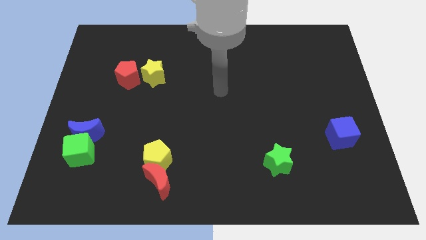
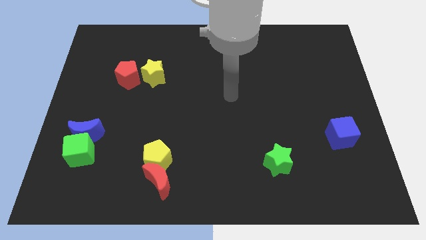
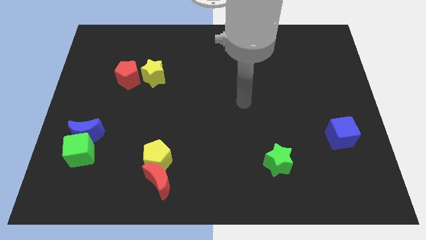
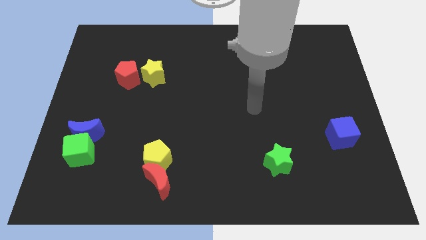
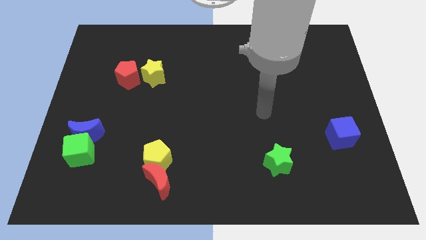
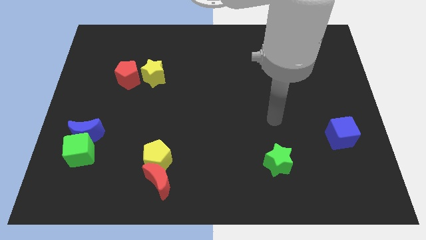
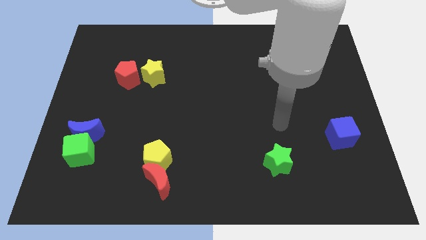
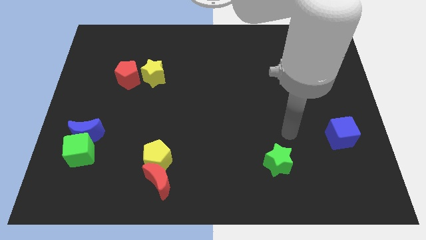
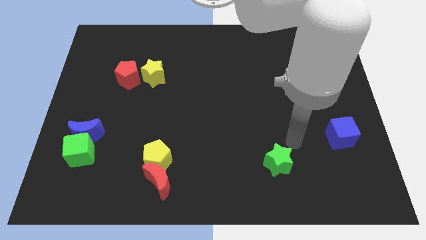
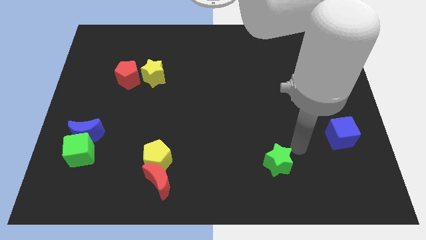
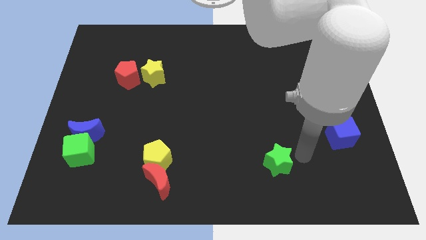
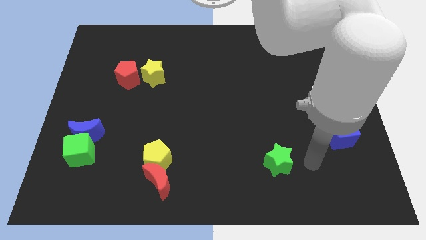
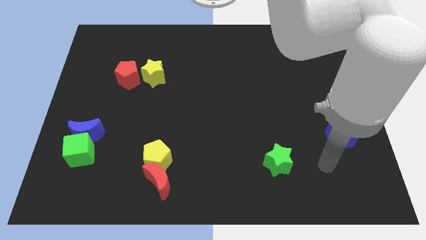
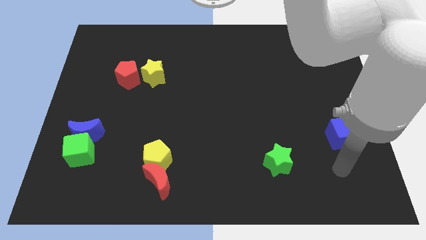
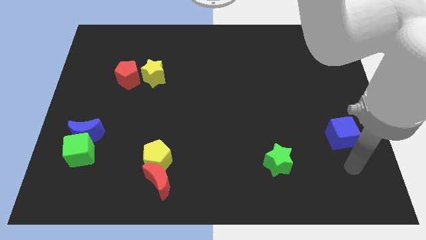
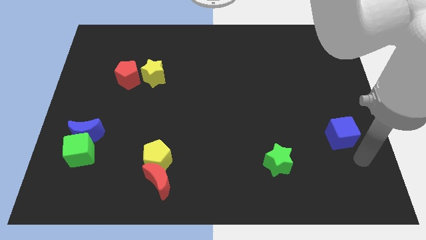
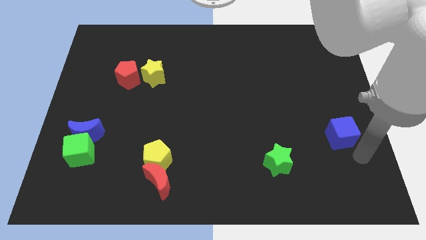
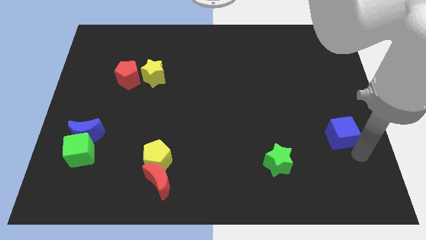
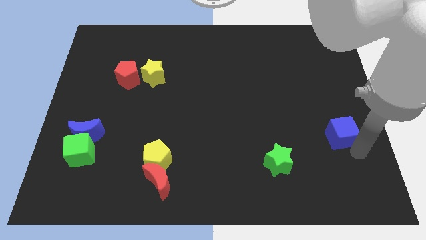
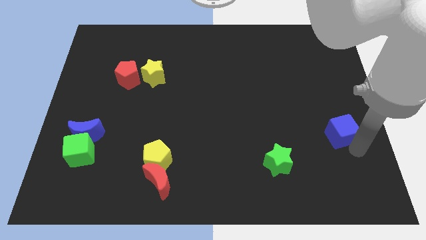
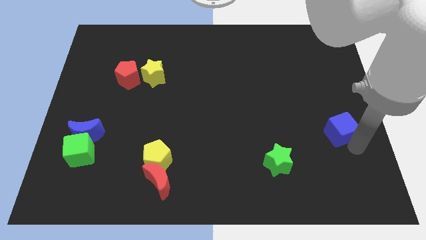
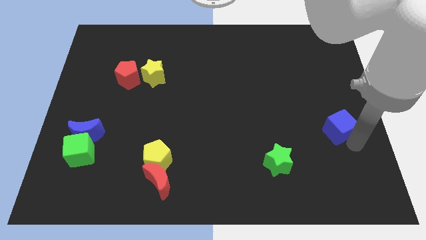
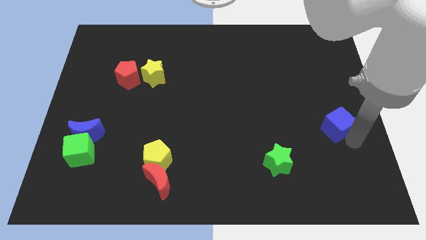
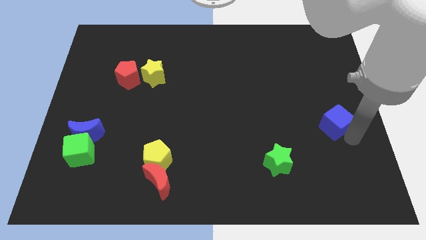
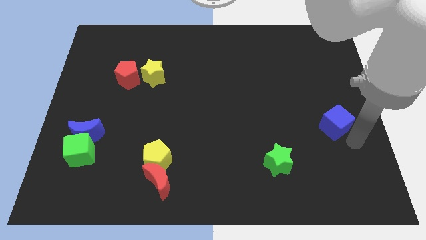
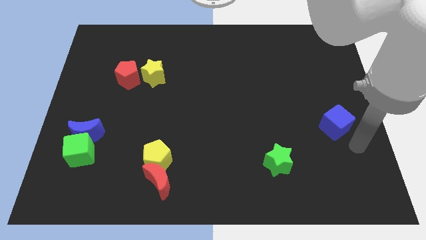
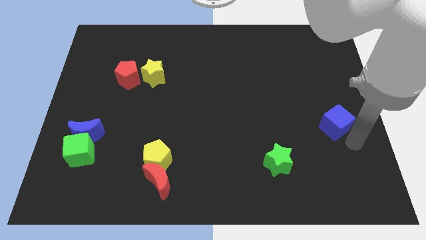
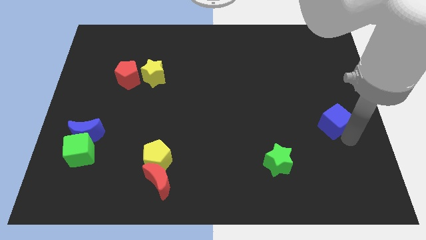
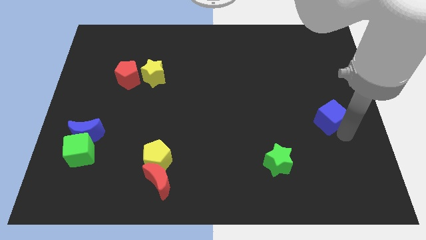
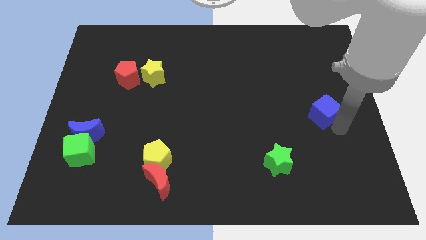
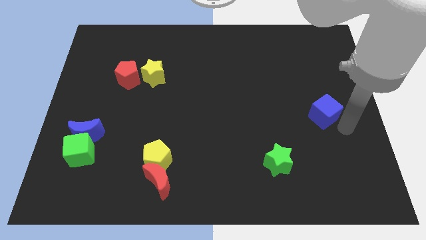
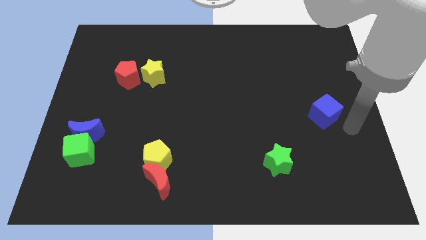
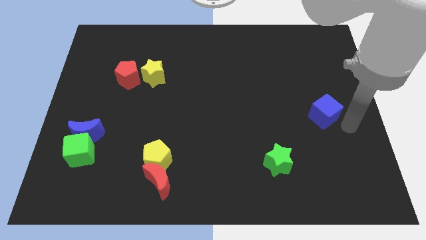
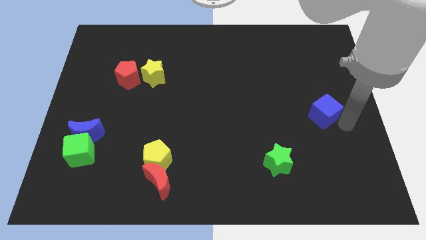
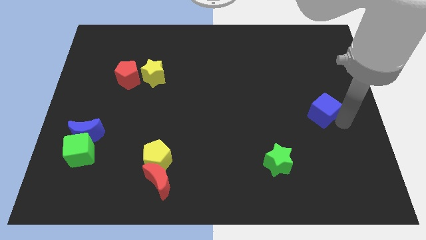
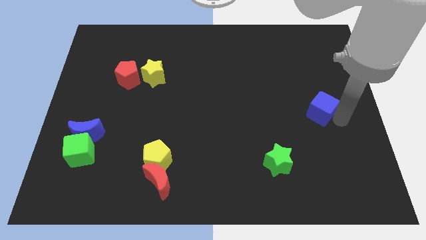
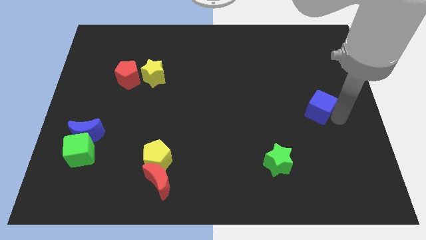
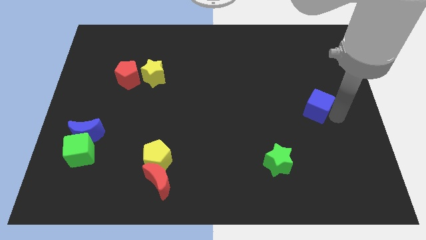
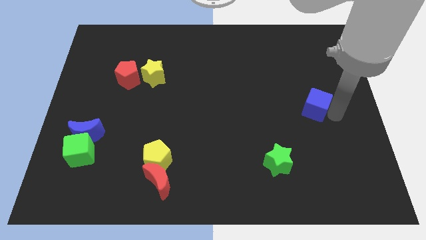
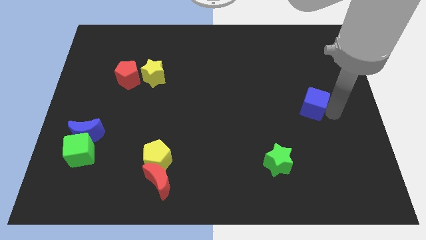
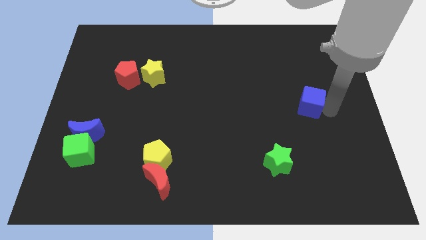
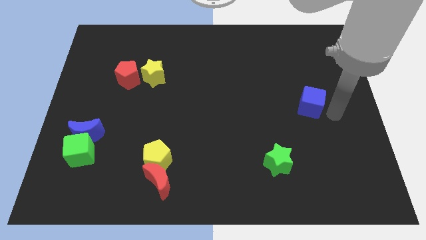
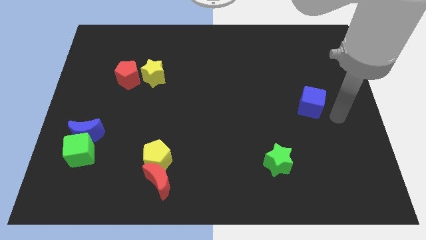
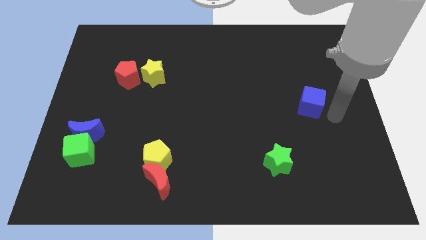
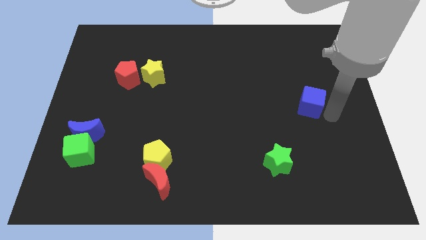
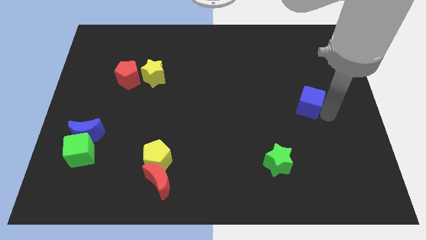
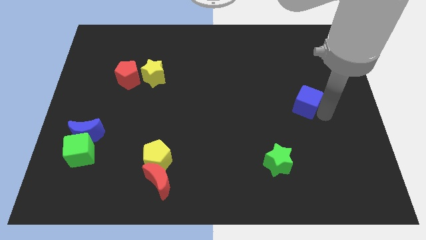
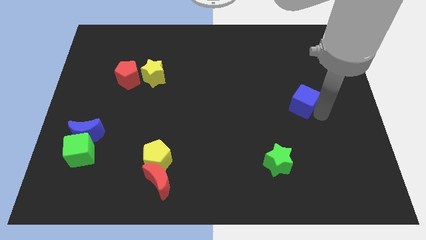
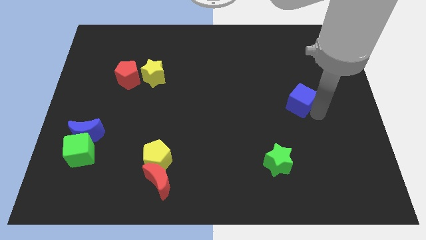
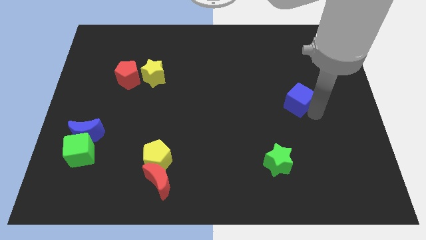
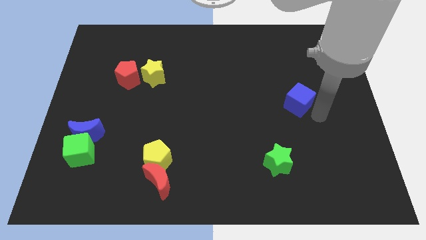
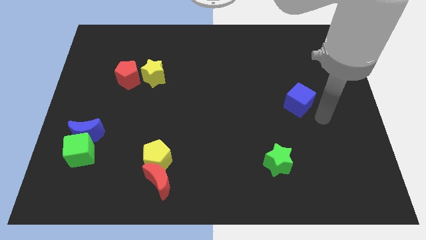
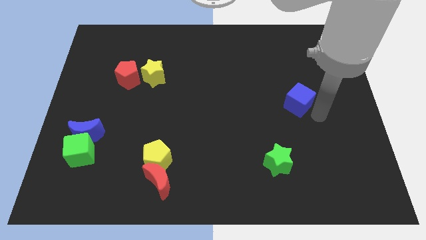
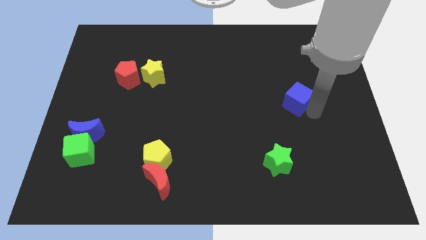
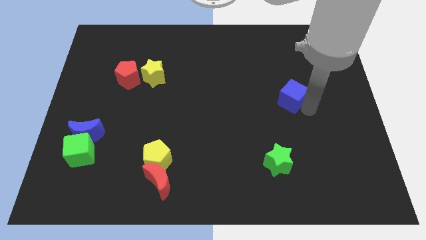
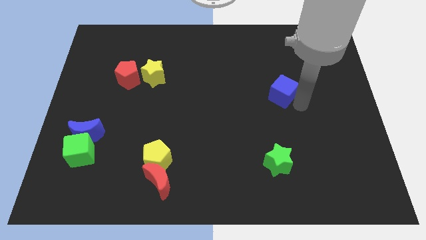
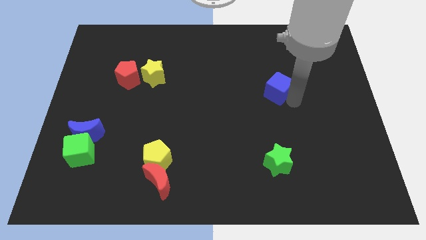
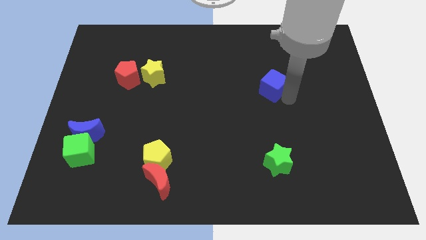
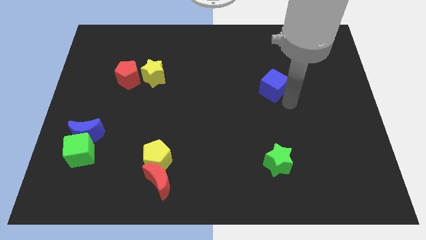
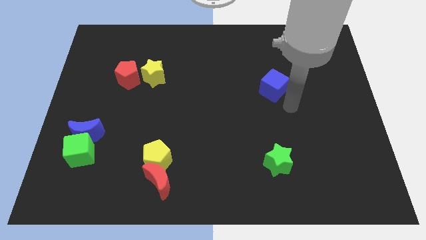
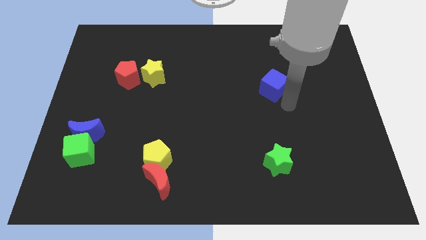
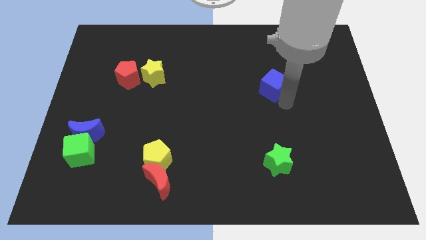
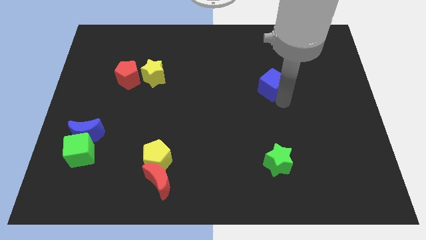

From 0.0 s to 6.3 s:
move the blue cube diagonally upwards and left

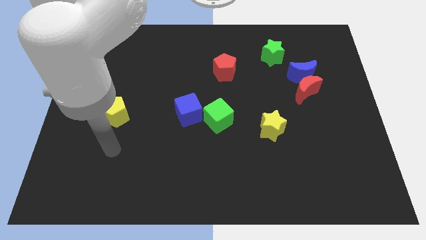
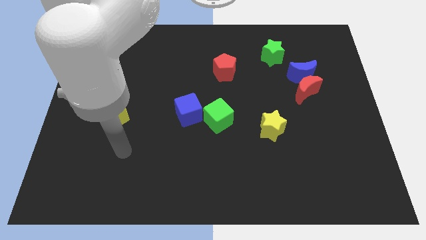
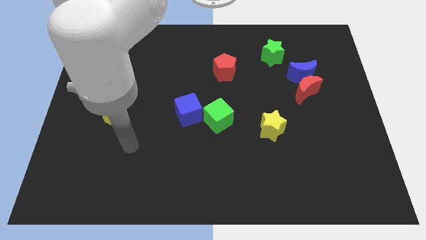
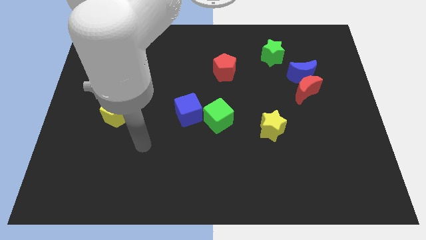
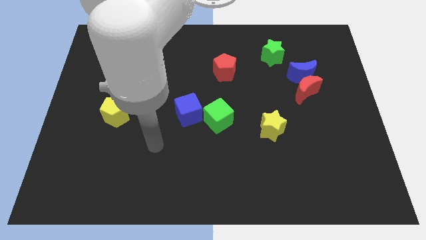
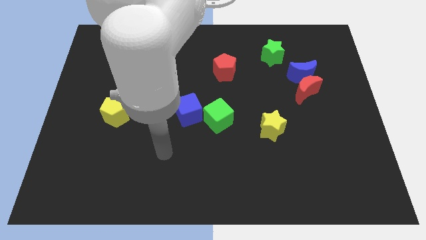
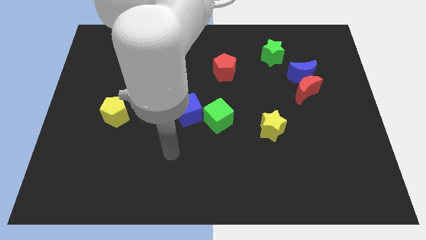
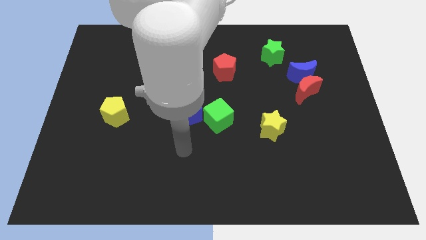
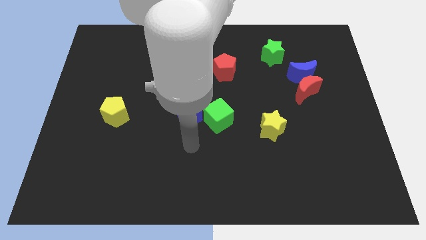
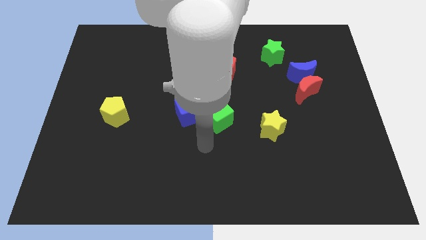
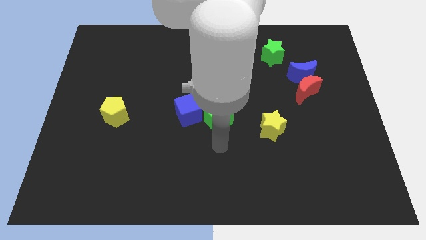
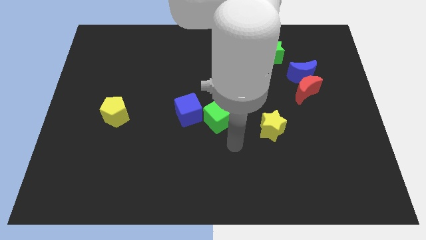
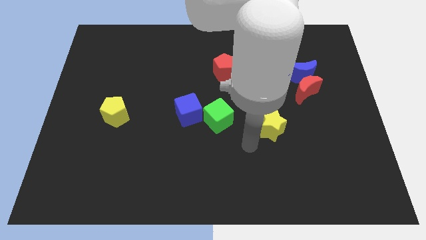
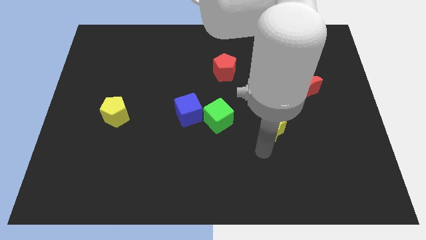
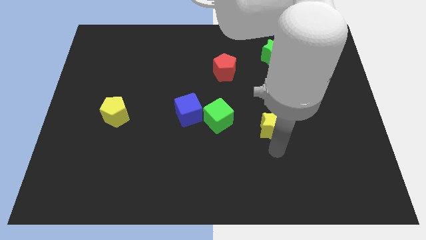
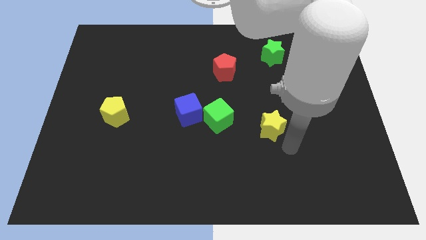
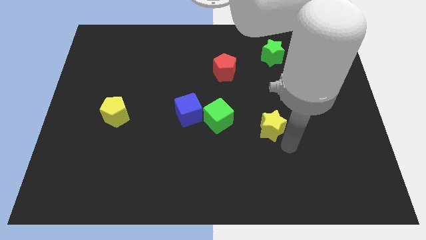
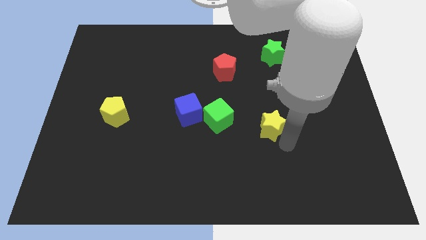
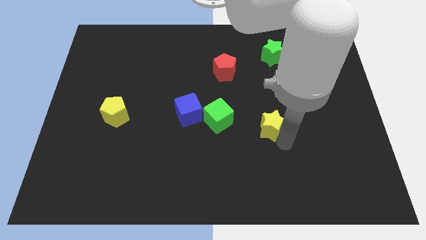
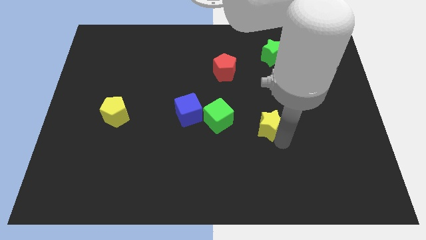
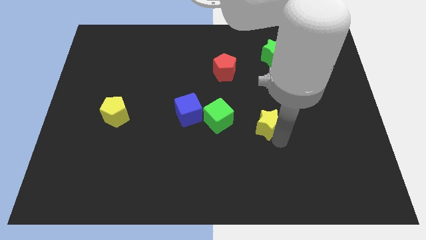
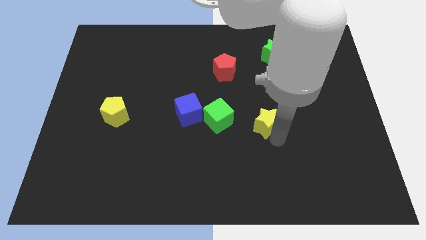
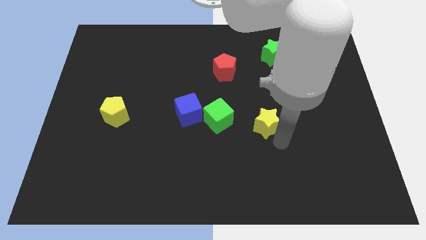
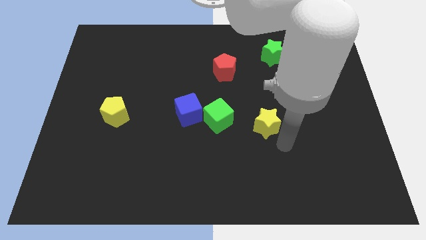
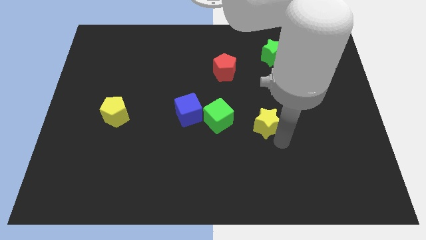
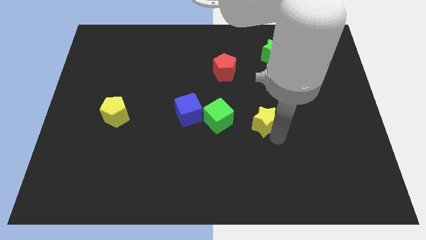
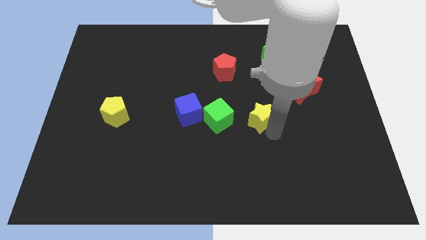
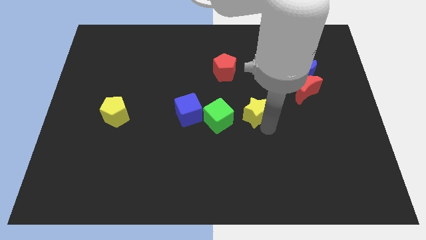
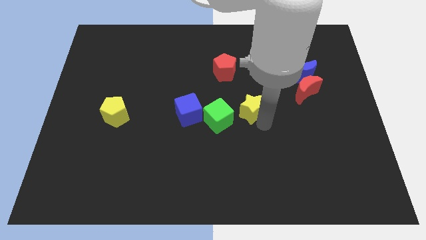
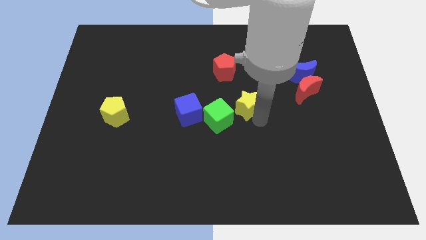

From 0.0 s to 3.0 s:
slide the yellow star a bit upwards and left diagonally
